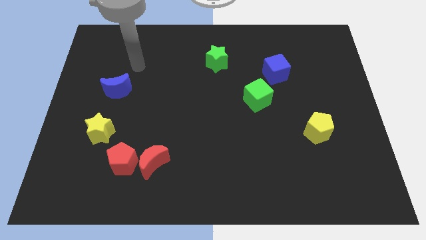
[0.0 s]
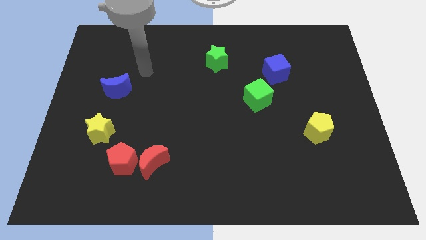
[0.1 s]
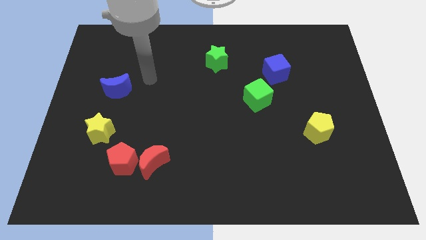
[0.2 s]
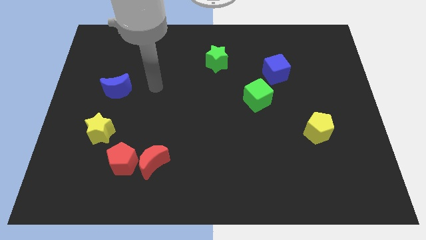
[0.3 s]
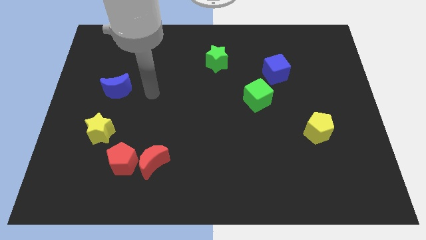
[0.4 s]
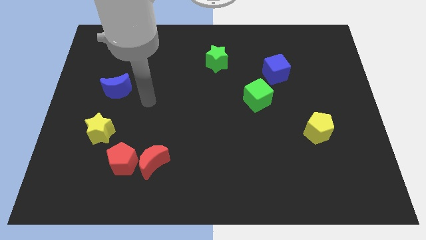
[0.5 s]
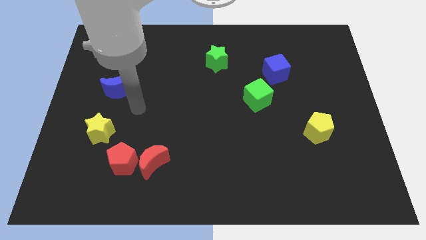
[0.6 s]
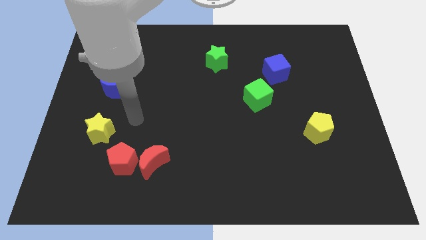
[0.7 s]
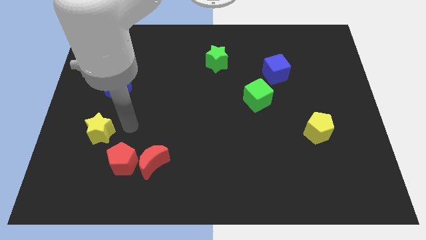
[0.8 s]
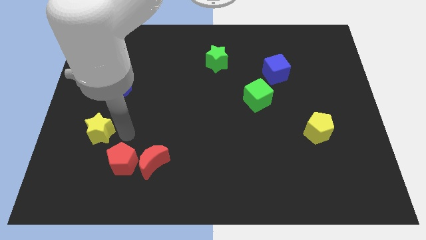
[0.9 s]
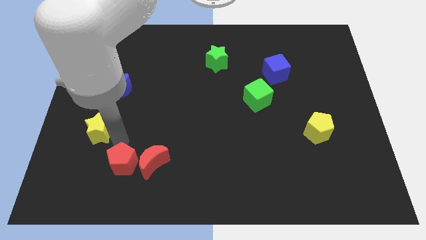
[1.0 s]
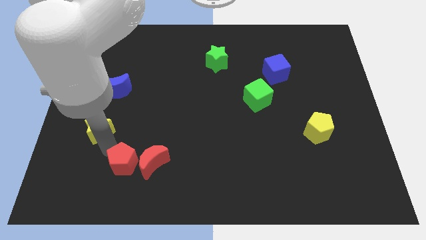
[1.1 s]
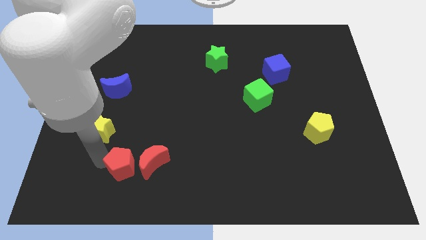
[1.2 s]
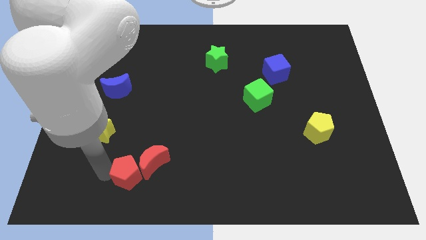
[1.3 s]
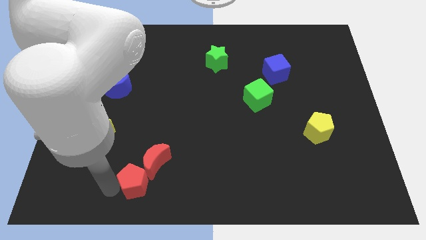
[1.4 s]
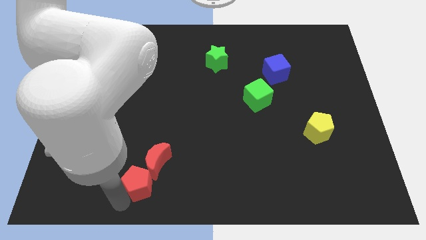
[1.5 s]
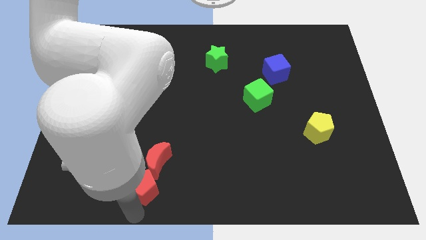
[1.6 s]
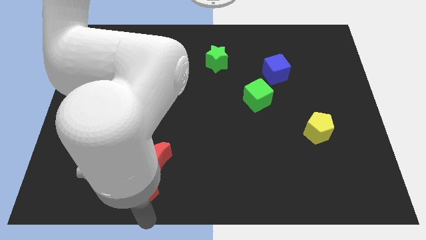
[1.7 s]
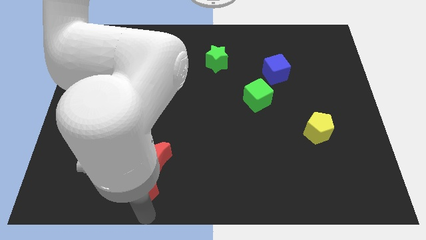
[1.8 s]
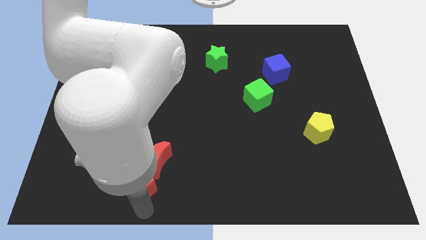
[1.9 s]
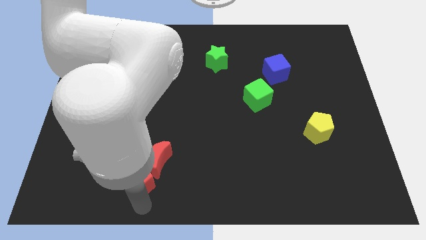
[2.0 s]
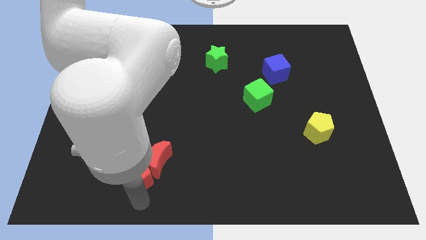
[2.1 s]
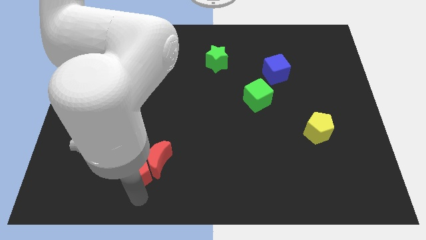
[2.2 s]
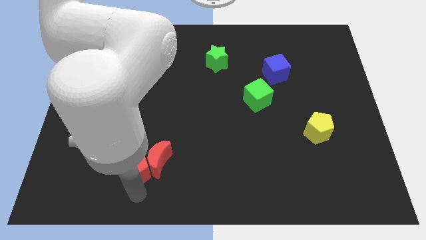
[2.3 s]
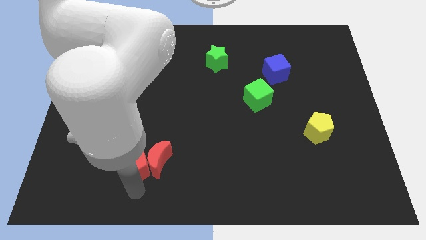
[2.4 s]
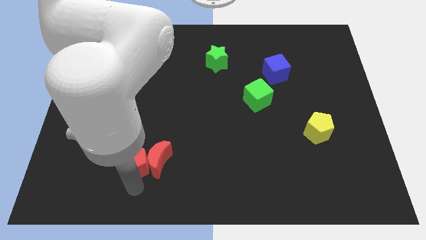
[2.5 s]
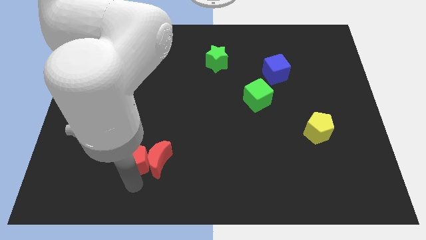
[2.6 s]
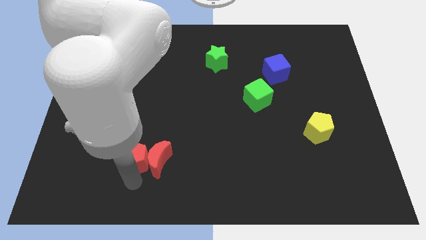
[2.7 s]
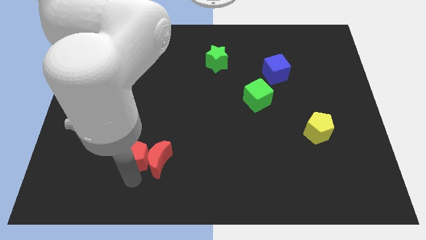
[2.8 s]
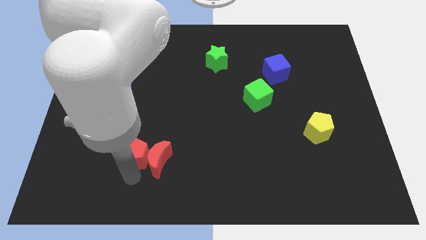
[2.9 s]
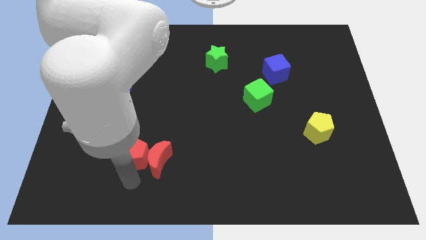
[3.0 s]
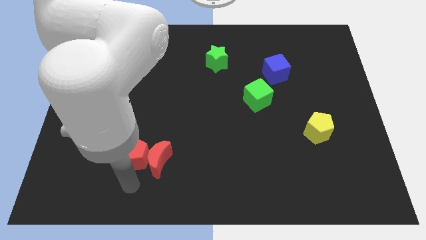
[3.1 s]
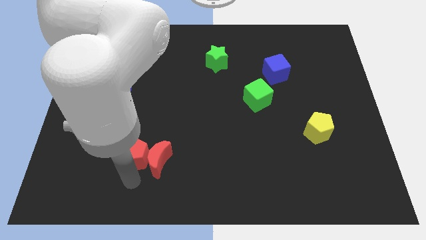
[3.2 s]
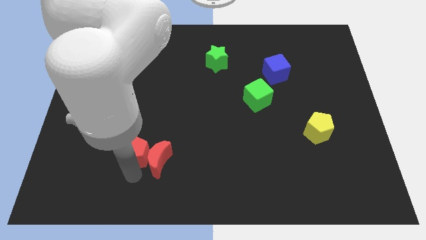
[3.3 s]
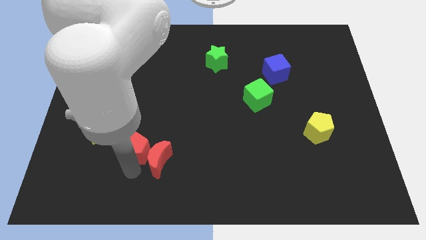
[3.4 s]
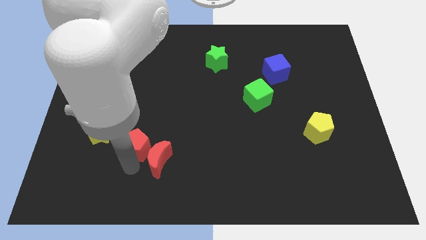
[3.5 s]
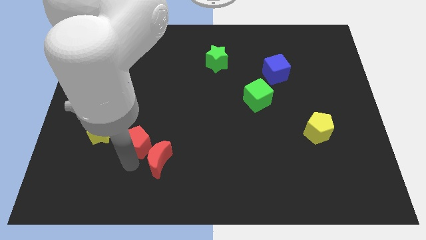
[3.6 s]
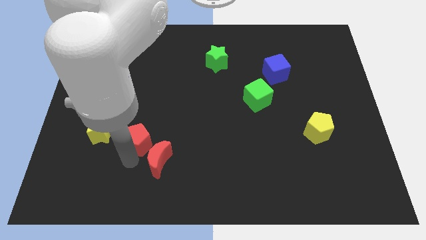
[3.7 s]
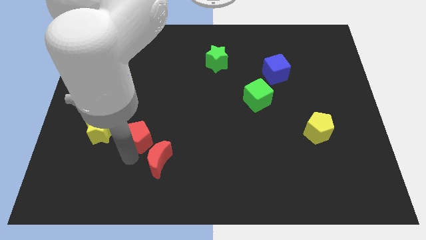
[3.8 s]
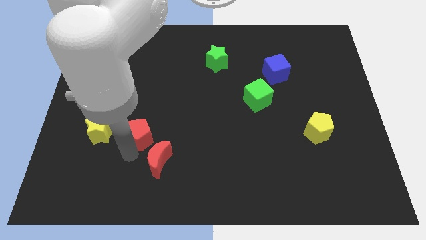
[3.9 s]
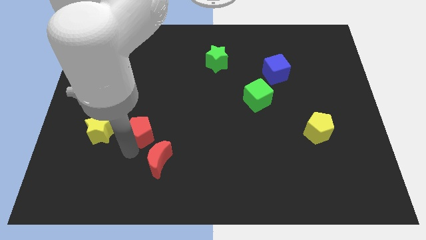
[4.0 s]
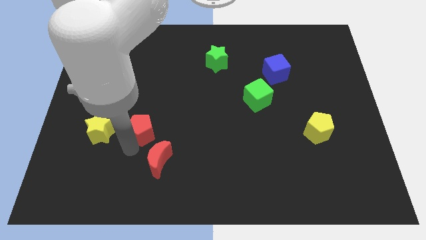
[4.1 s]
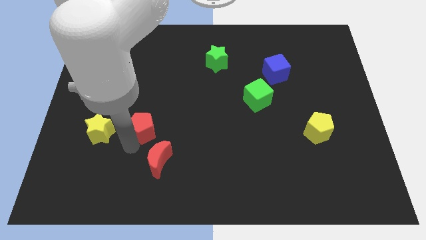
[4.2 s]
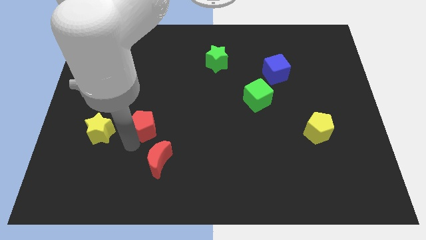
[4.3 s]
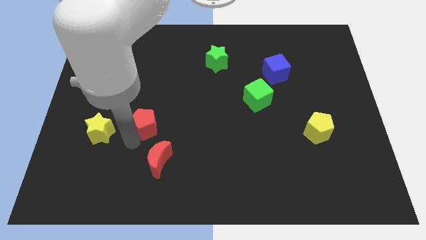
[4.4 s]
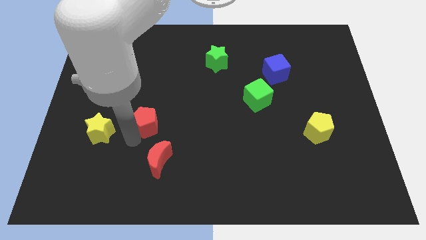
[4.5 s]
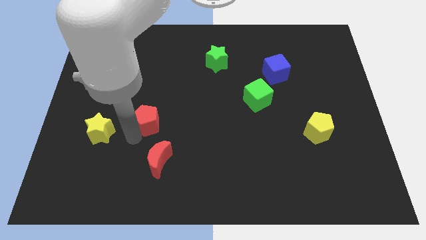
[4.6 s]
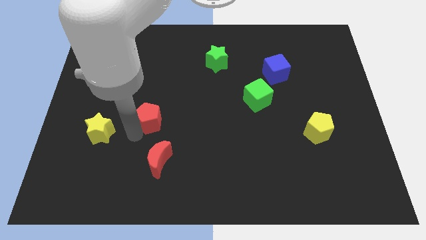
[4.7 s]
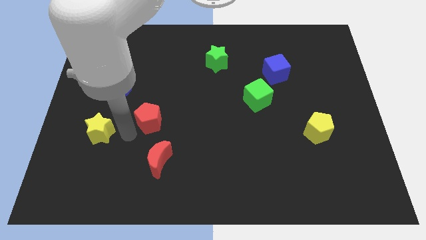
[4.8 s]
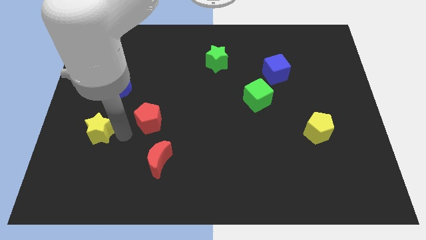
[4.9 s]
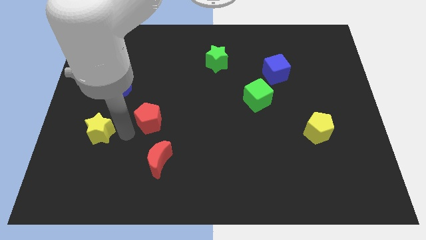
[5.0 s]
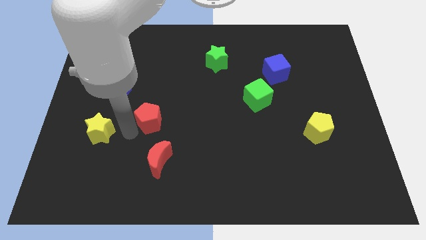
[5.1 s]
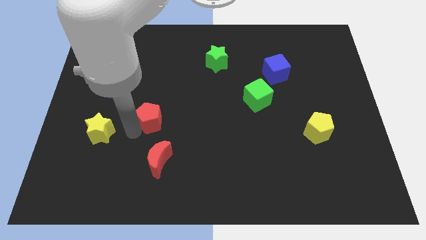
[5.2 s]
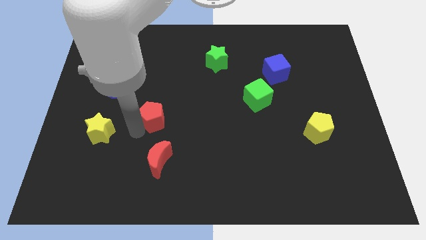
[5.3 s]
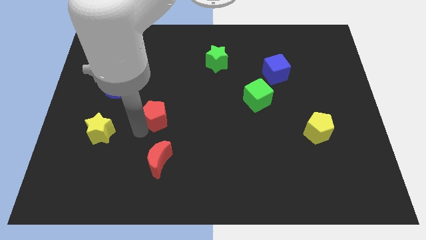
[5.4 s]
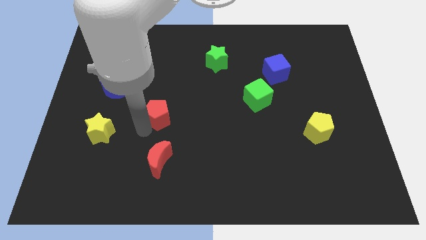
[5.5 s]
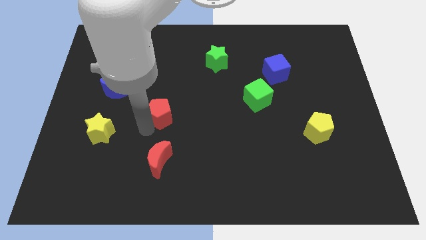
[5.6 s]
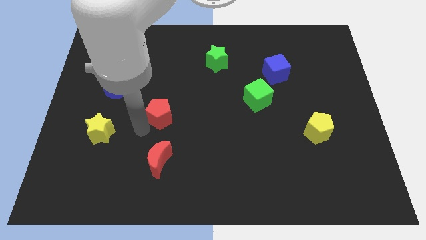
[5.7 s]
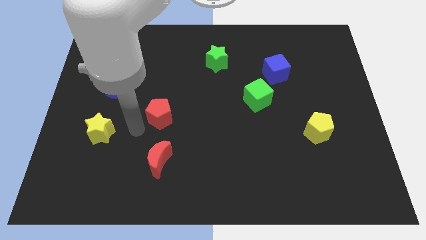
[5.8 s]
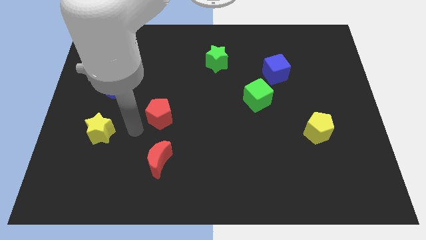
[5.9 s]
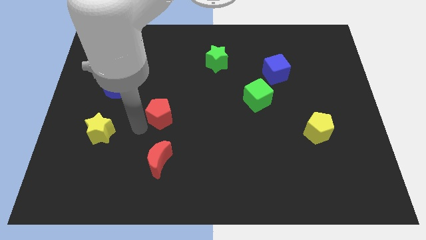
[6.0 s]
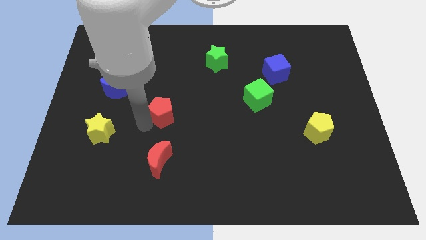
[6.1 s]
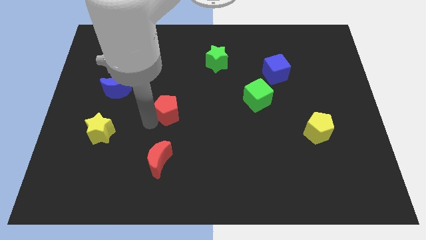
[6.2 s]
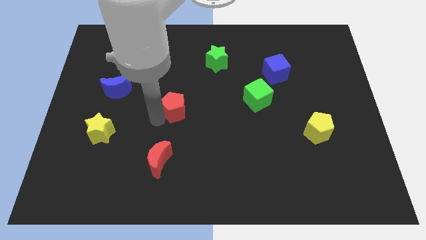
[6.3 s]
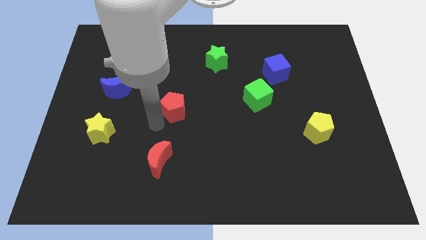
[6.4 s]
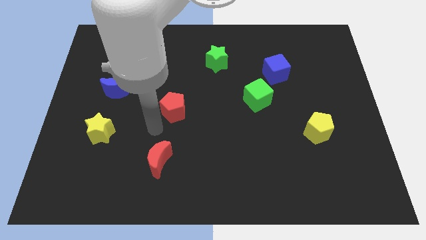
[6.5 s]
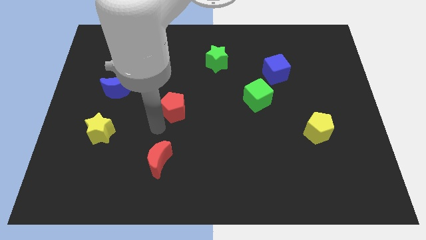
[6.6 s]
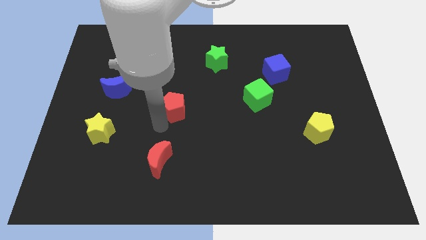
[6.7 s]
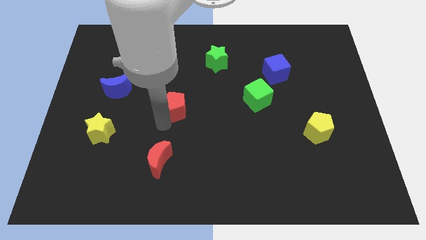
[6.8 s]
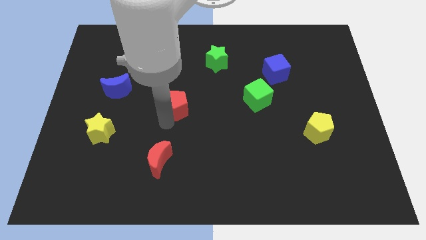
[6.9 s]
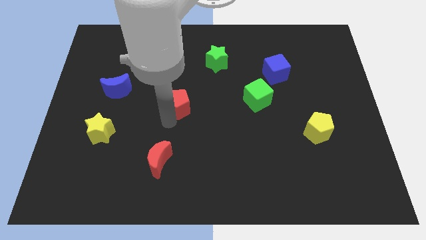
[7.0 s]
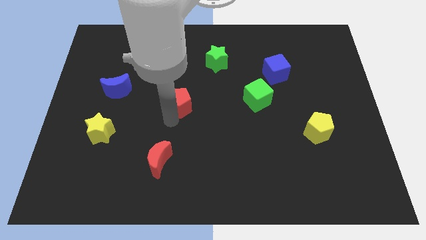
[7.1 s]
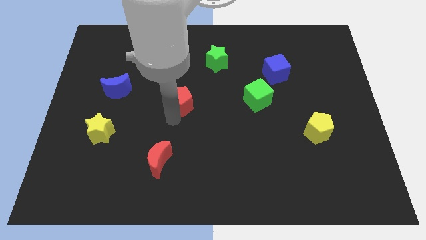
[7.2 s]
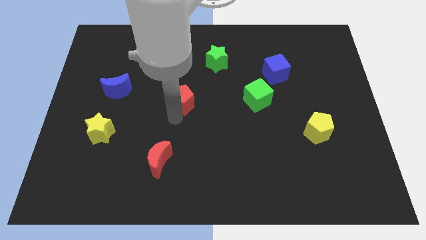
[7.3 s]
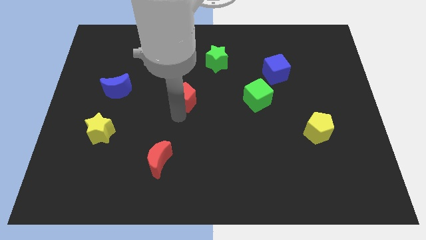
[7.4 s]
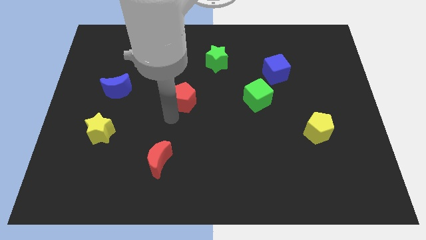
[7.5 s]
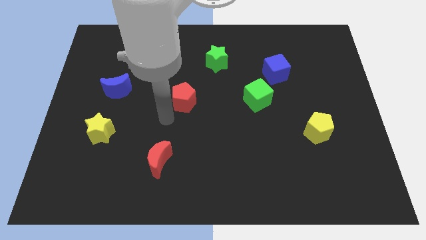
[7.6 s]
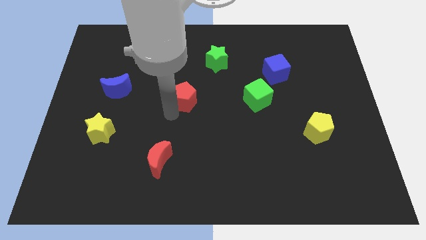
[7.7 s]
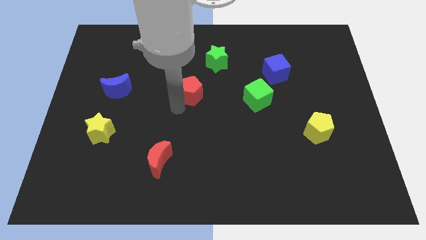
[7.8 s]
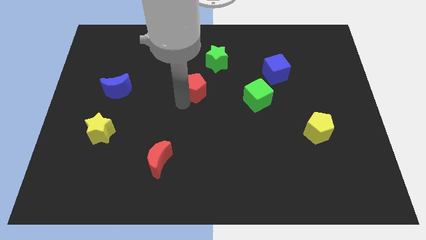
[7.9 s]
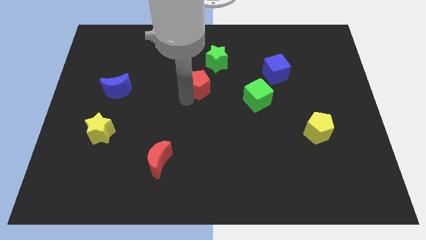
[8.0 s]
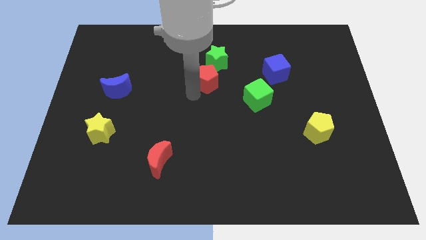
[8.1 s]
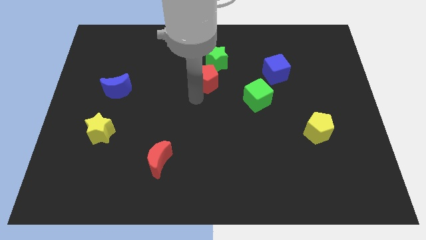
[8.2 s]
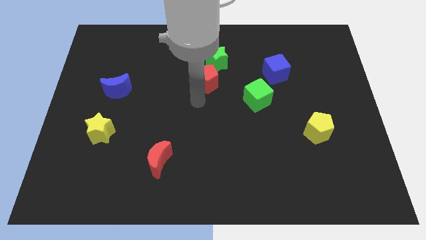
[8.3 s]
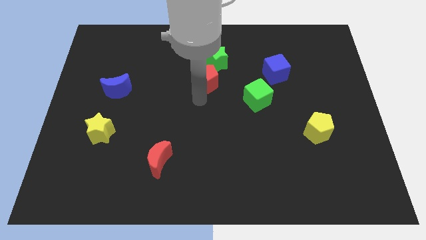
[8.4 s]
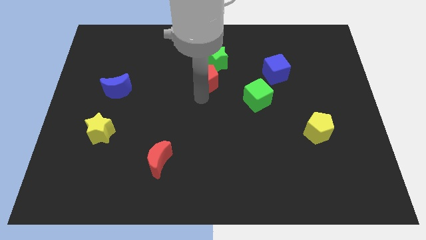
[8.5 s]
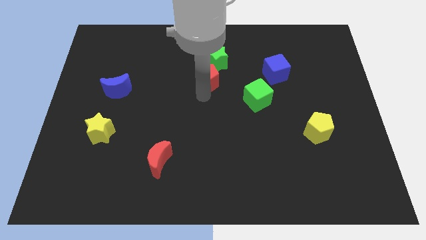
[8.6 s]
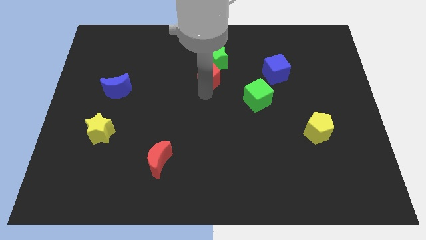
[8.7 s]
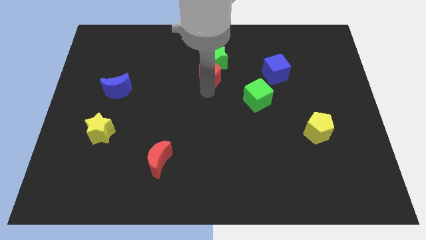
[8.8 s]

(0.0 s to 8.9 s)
move the red pentagon close to the green star
